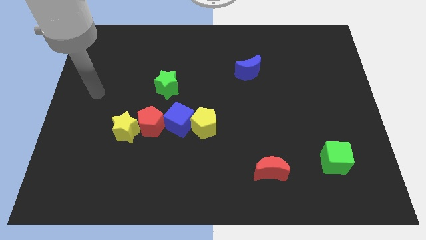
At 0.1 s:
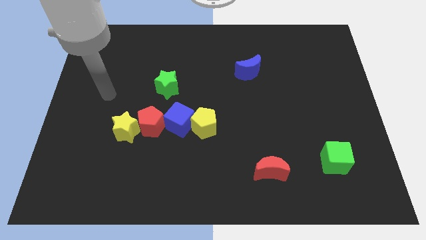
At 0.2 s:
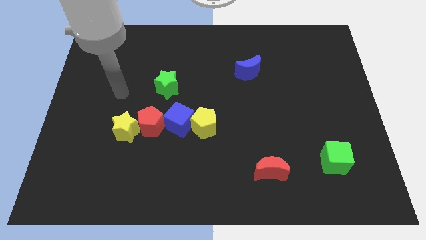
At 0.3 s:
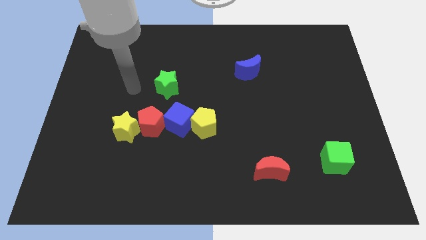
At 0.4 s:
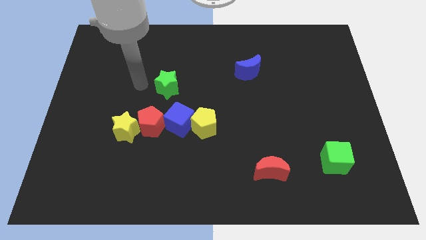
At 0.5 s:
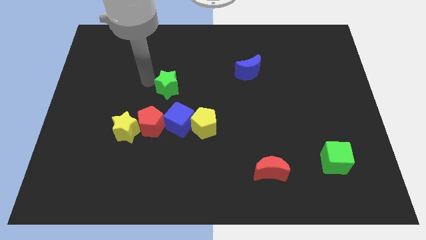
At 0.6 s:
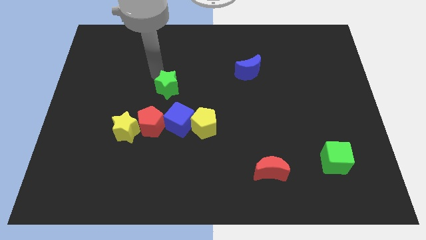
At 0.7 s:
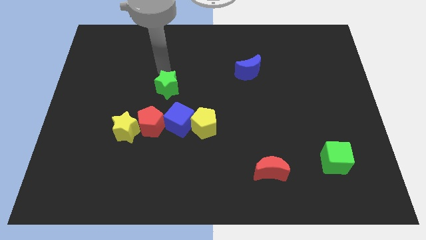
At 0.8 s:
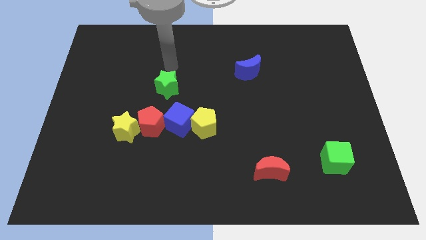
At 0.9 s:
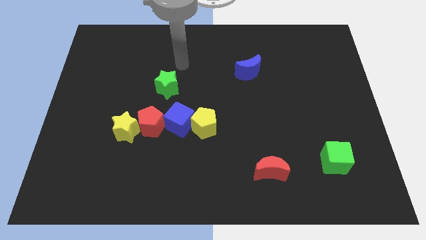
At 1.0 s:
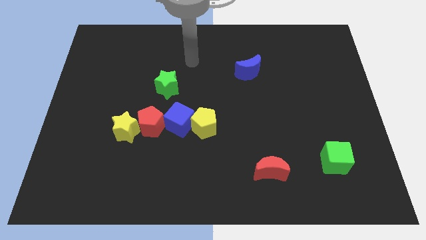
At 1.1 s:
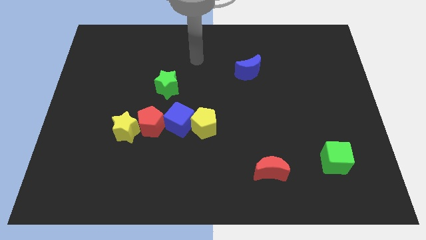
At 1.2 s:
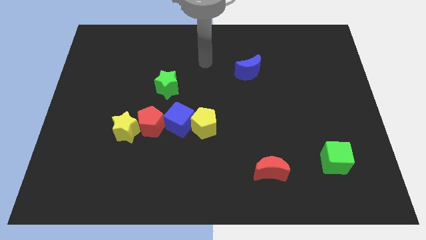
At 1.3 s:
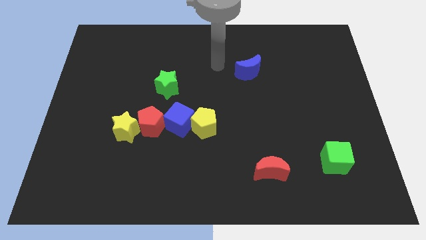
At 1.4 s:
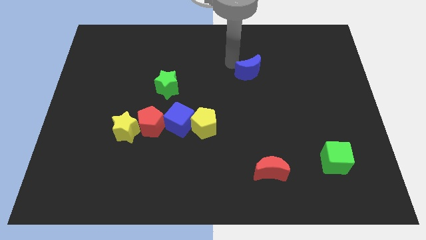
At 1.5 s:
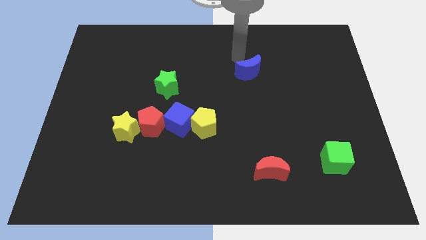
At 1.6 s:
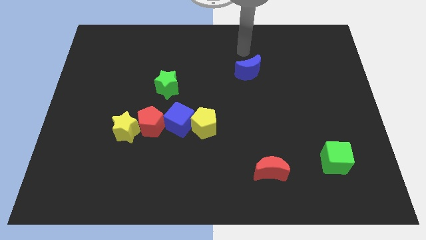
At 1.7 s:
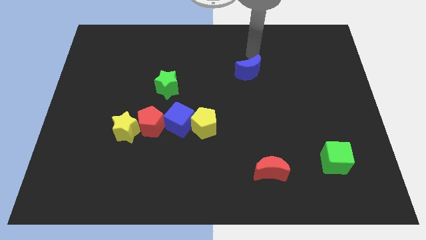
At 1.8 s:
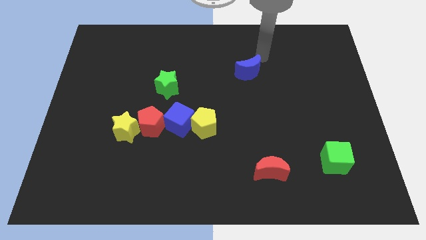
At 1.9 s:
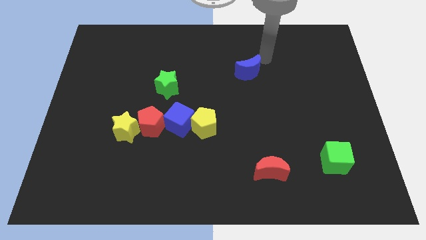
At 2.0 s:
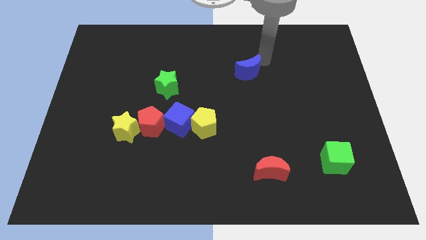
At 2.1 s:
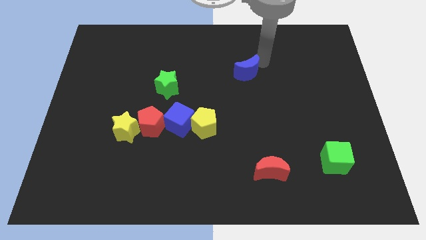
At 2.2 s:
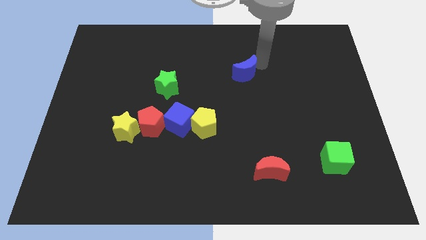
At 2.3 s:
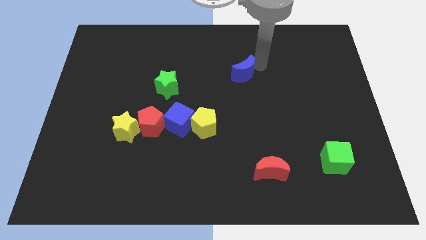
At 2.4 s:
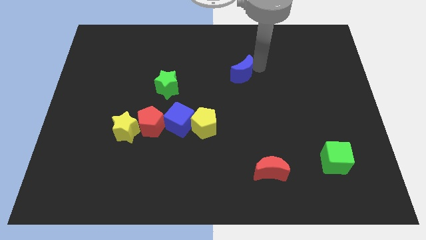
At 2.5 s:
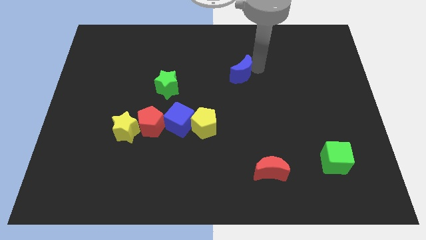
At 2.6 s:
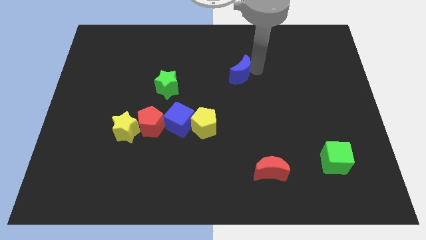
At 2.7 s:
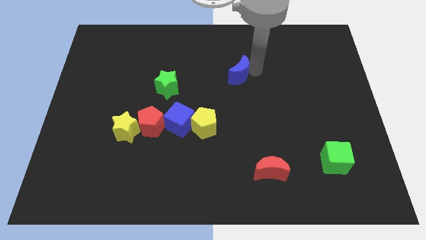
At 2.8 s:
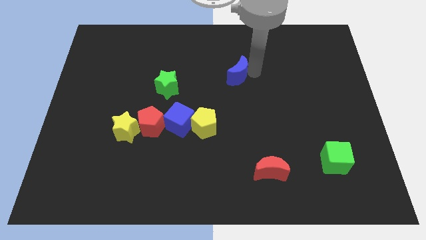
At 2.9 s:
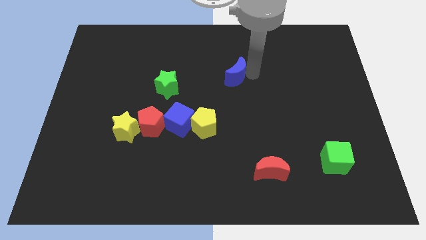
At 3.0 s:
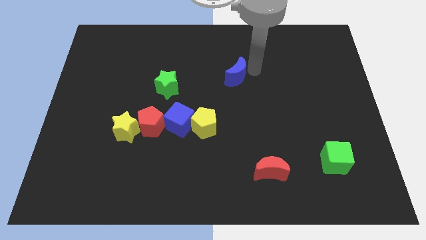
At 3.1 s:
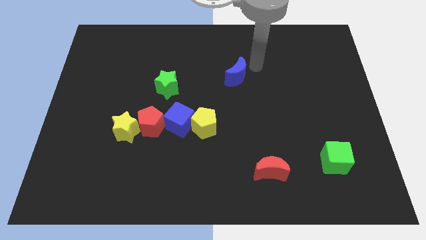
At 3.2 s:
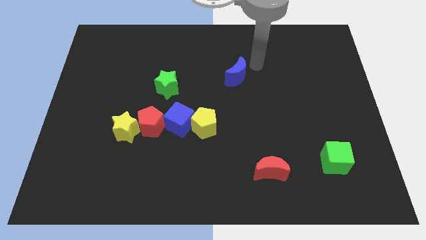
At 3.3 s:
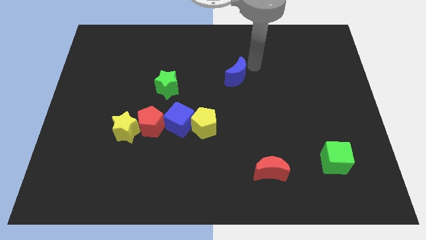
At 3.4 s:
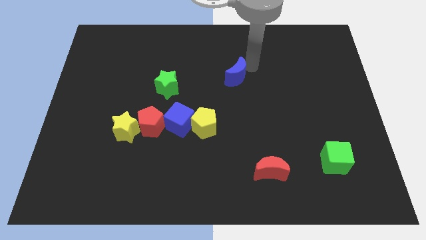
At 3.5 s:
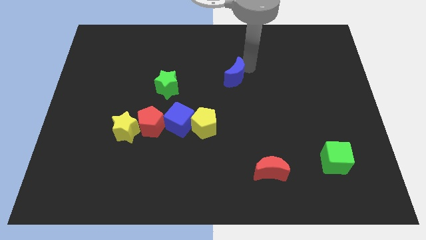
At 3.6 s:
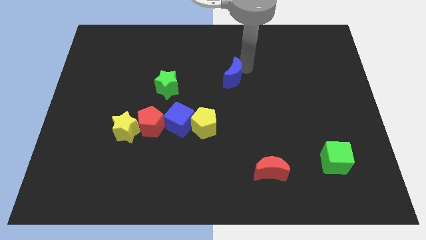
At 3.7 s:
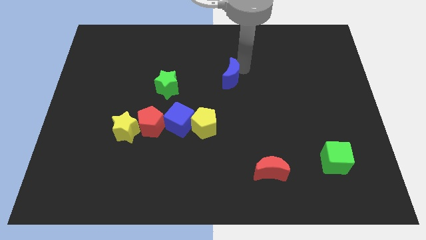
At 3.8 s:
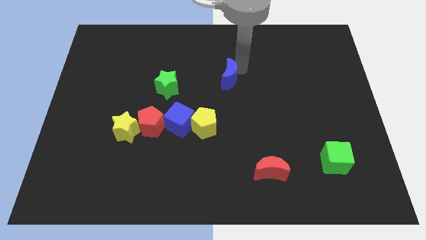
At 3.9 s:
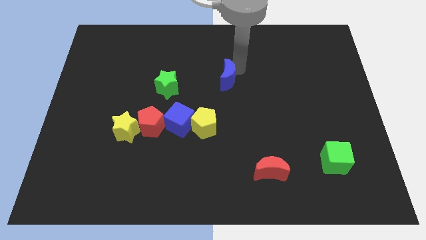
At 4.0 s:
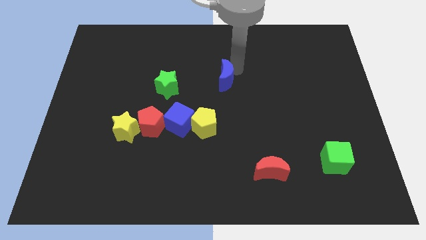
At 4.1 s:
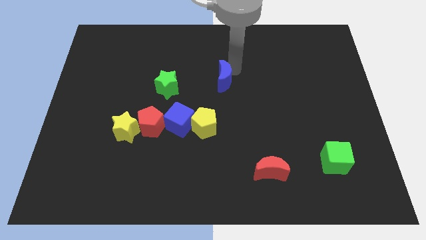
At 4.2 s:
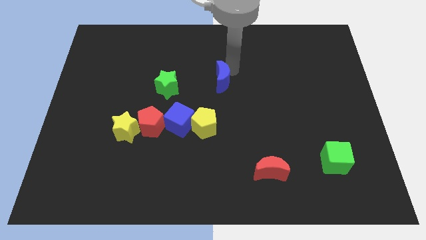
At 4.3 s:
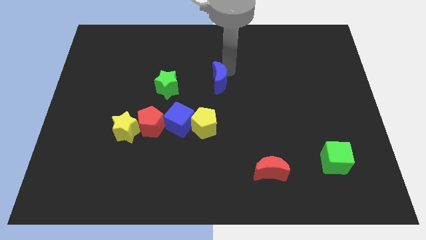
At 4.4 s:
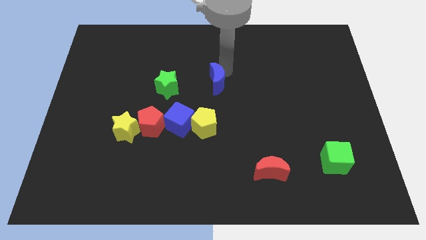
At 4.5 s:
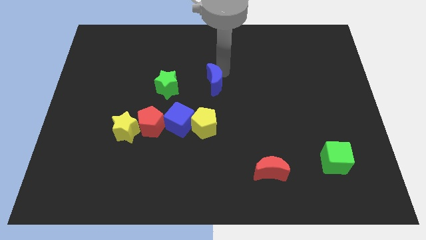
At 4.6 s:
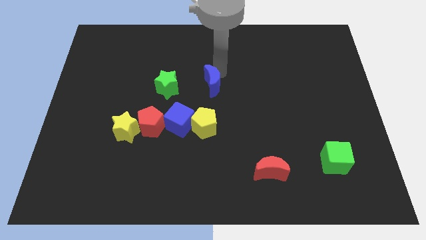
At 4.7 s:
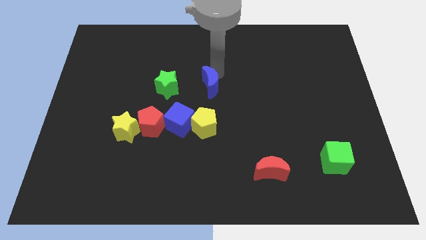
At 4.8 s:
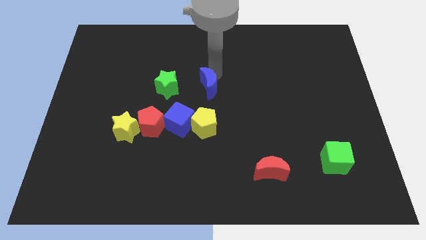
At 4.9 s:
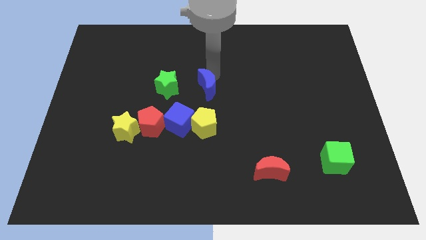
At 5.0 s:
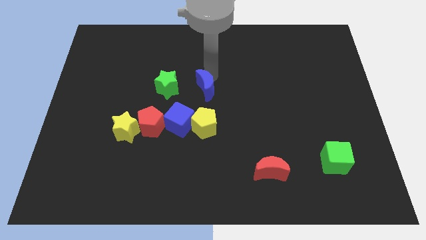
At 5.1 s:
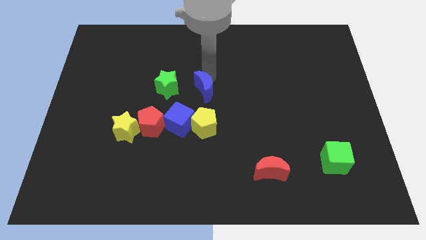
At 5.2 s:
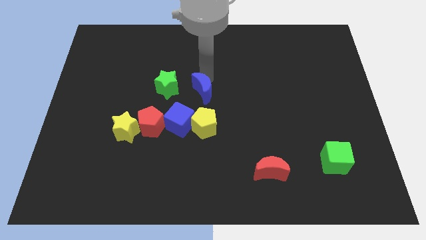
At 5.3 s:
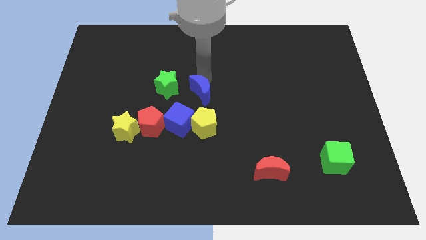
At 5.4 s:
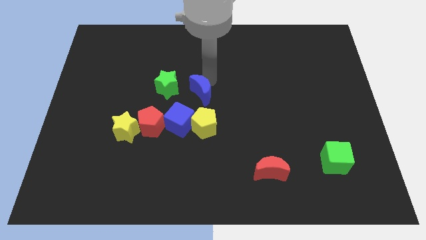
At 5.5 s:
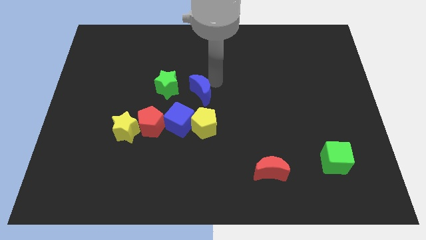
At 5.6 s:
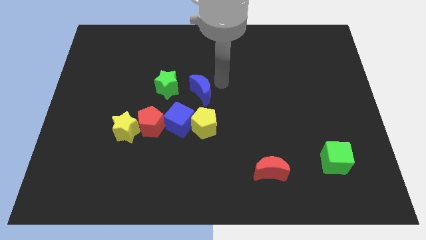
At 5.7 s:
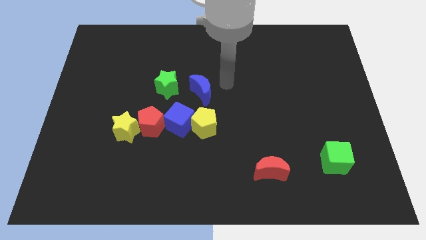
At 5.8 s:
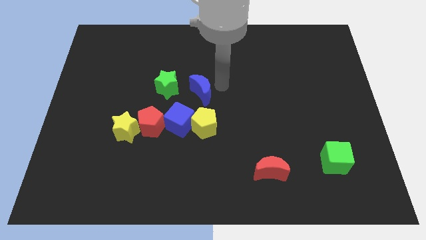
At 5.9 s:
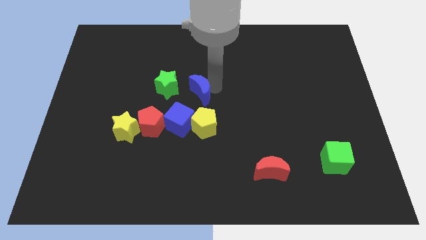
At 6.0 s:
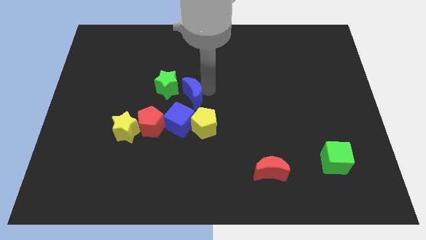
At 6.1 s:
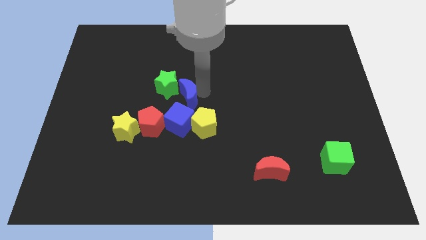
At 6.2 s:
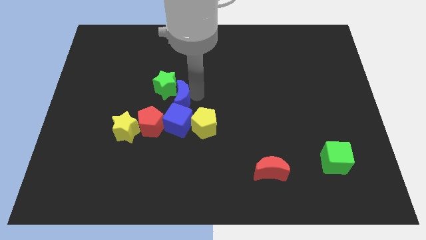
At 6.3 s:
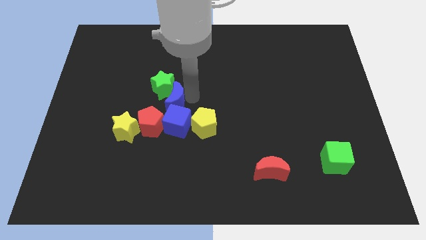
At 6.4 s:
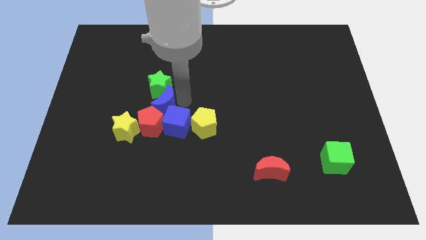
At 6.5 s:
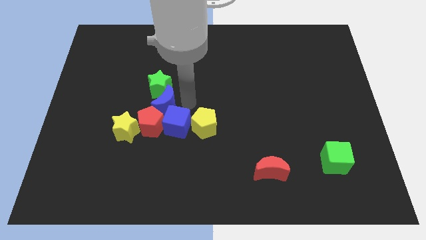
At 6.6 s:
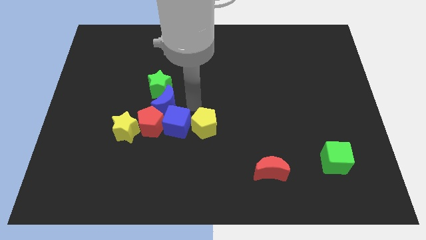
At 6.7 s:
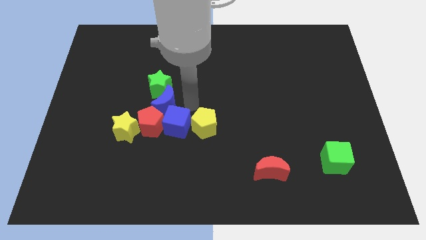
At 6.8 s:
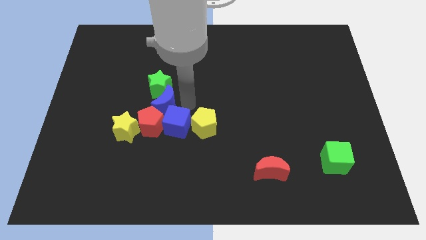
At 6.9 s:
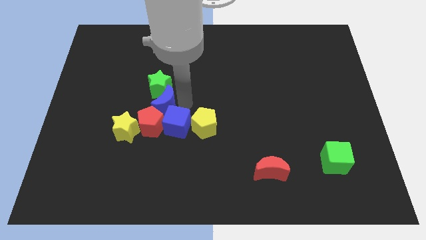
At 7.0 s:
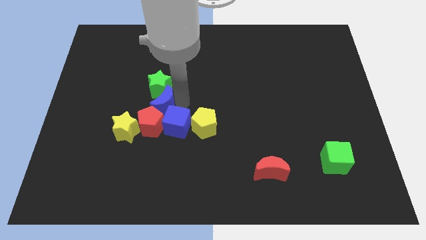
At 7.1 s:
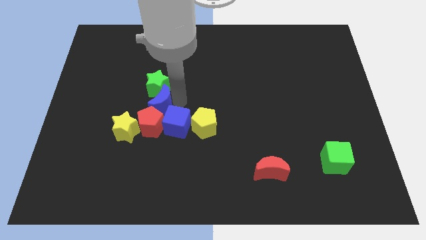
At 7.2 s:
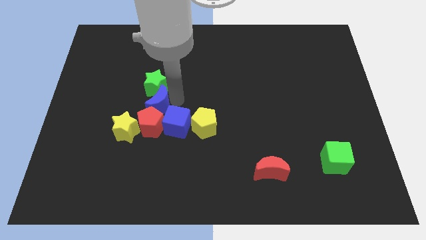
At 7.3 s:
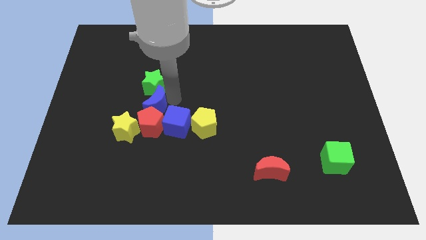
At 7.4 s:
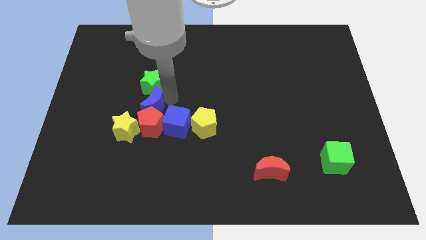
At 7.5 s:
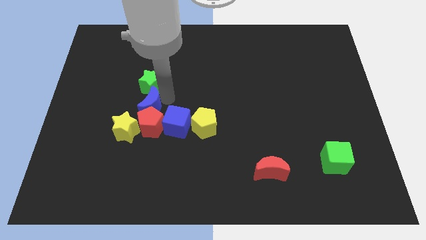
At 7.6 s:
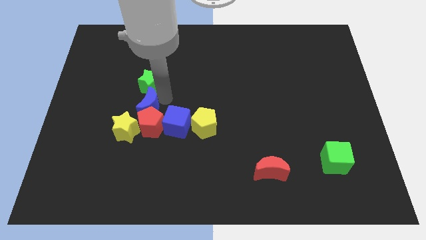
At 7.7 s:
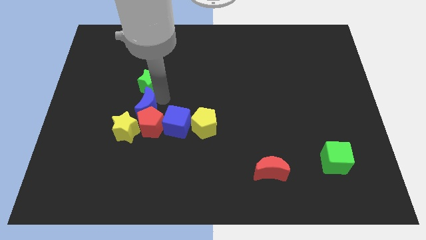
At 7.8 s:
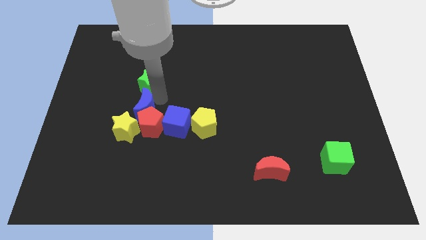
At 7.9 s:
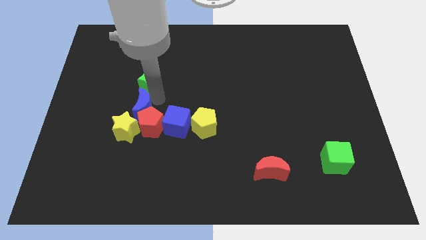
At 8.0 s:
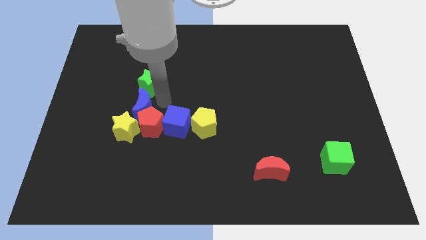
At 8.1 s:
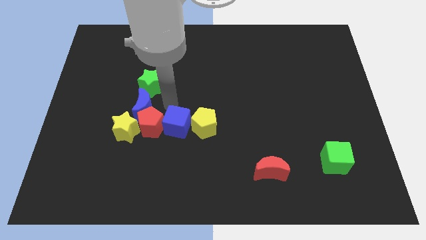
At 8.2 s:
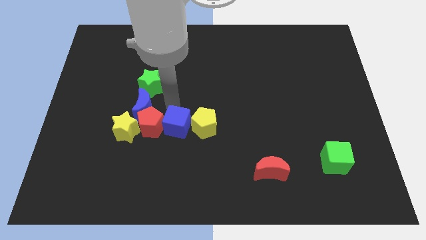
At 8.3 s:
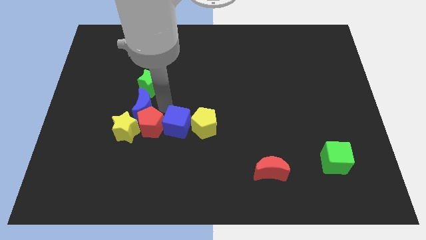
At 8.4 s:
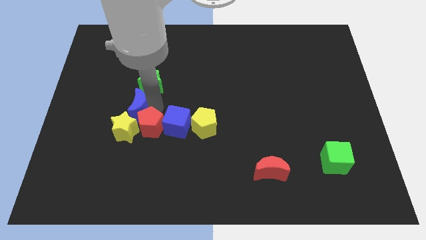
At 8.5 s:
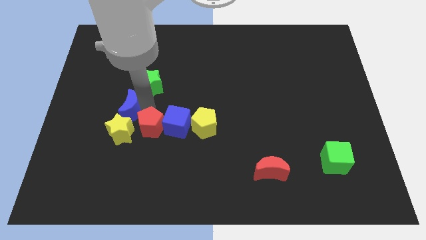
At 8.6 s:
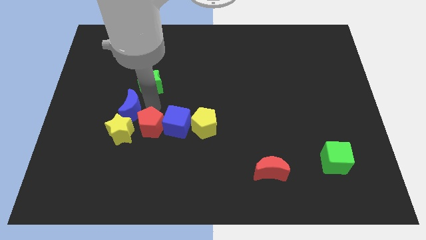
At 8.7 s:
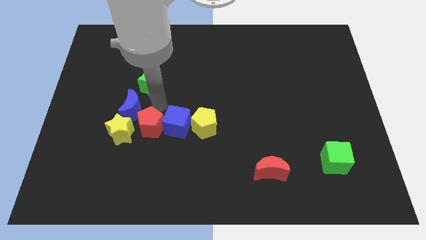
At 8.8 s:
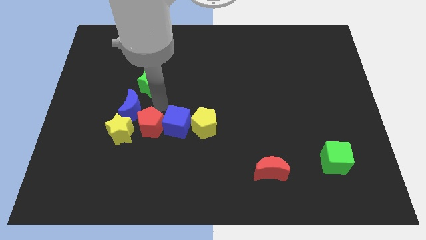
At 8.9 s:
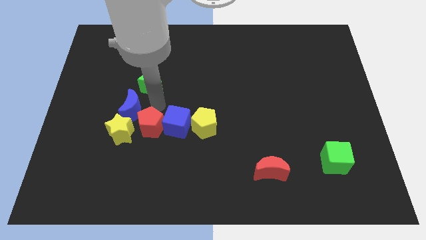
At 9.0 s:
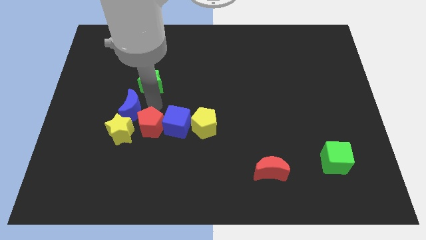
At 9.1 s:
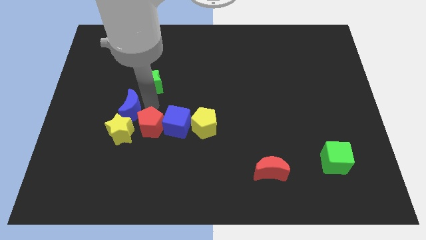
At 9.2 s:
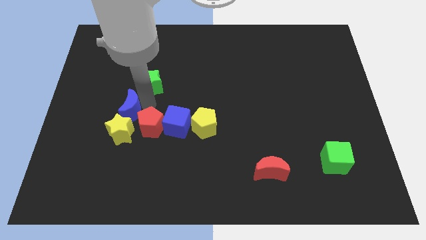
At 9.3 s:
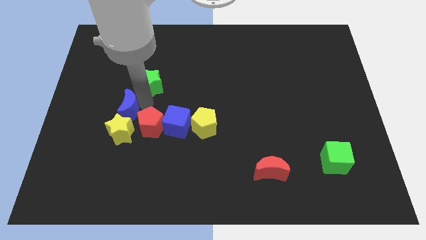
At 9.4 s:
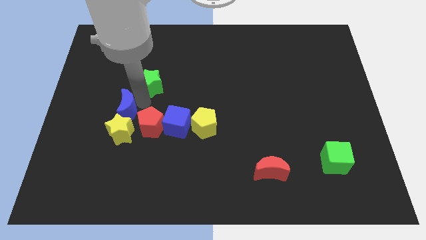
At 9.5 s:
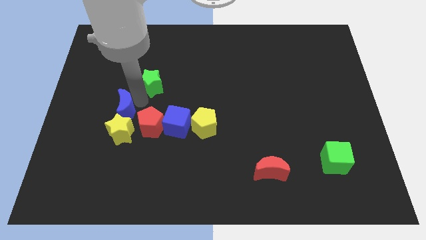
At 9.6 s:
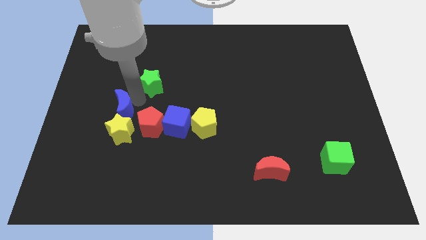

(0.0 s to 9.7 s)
move the blue moon diagonally up and to the left of the yellow star
